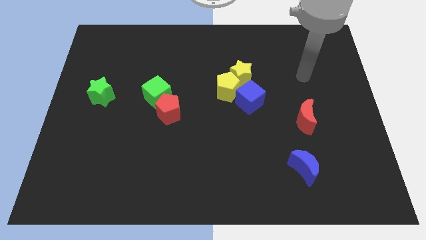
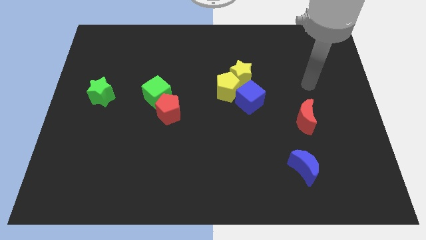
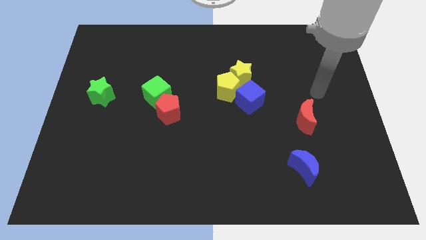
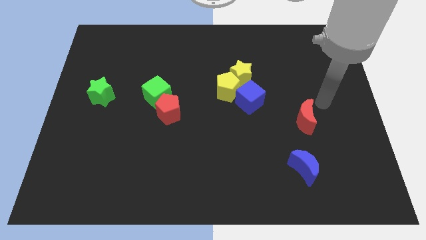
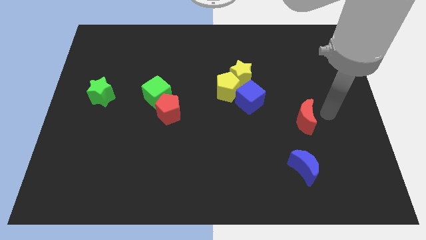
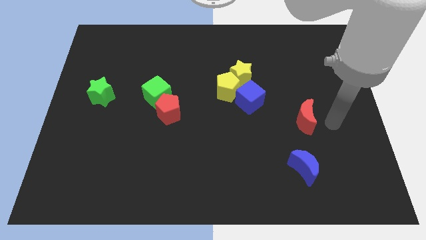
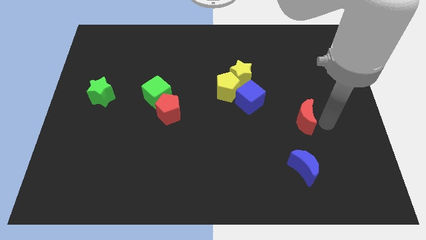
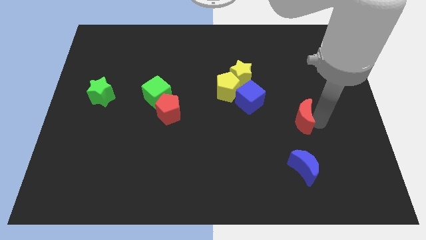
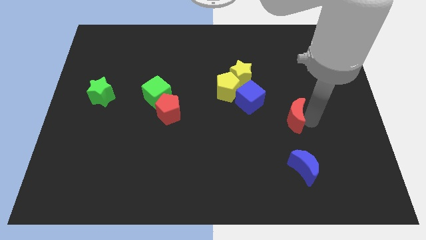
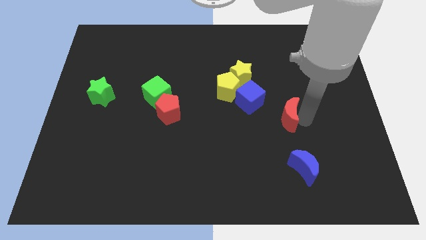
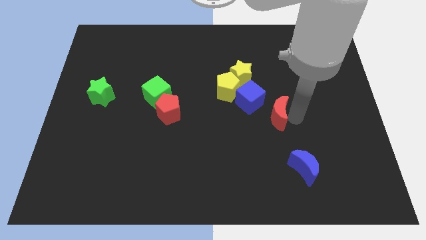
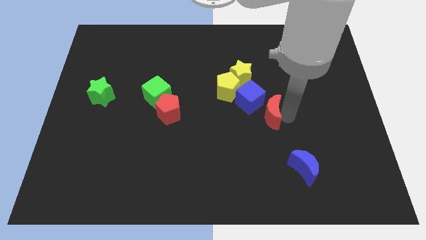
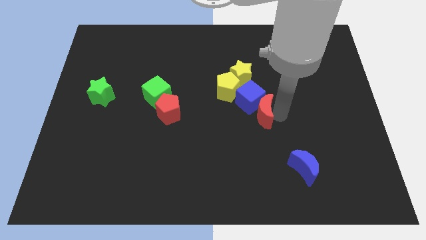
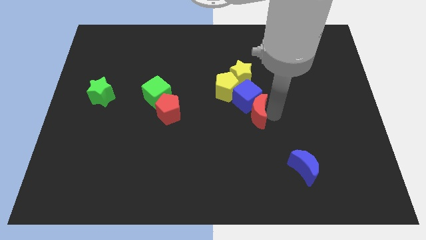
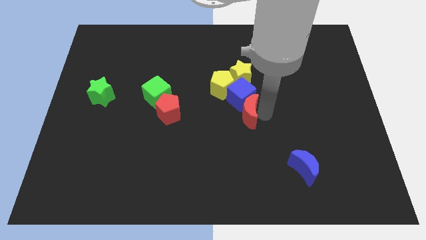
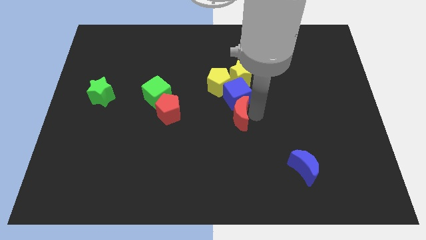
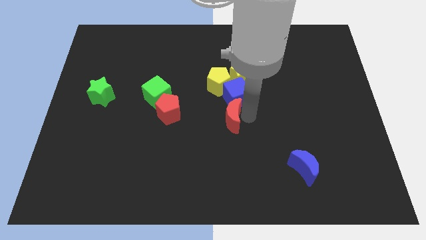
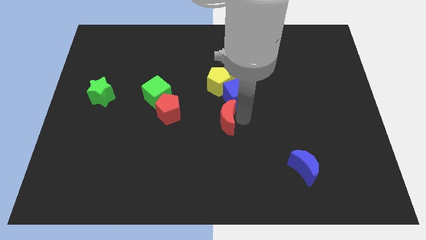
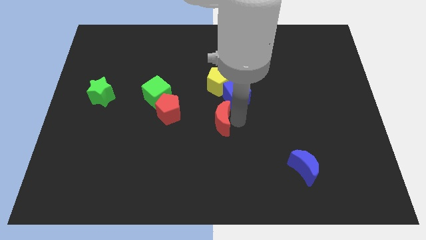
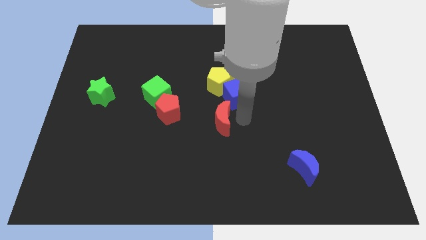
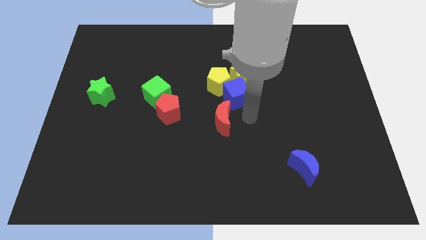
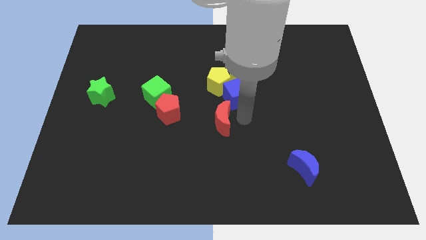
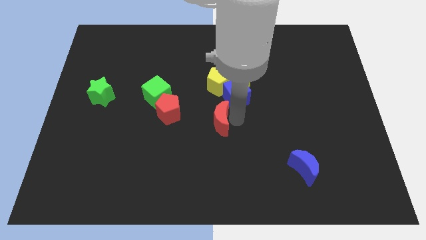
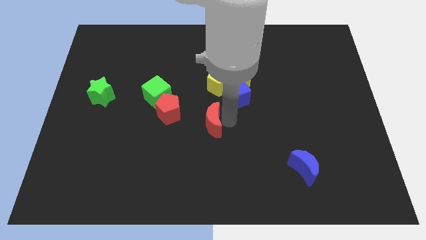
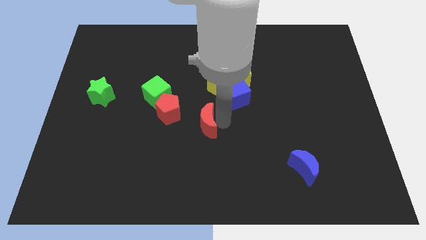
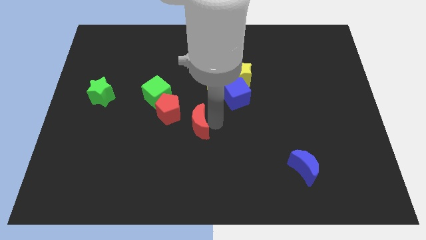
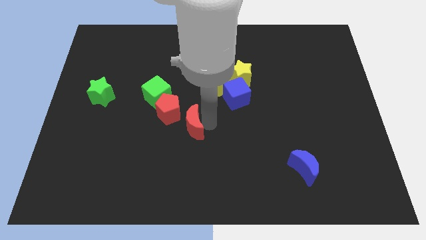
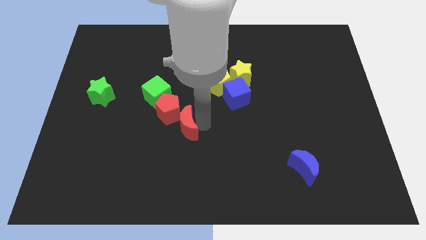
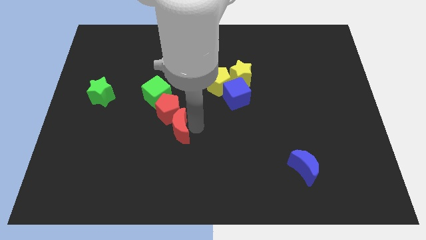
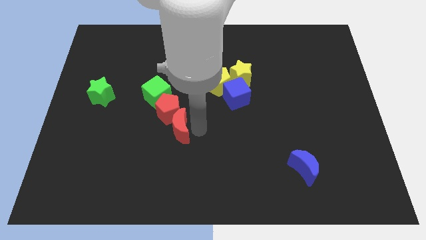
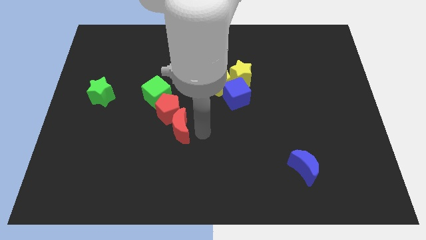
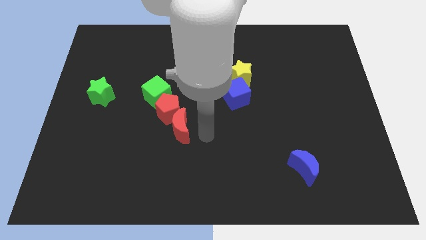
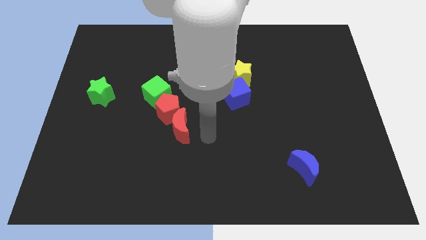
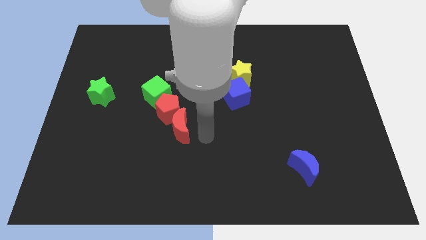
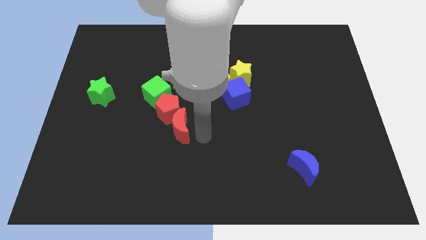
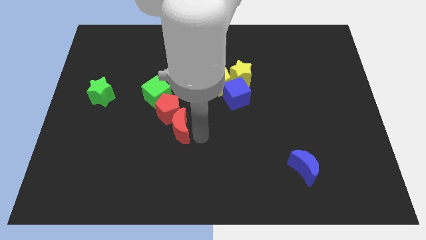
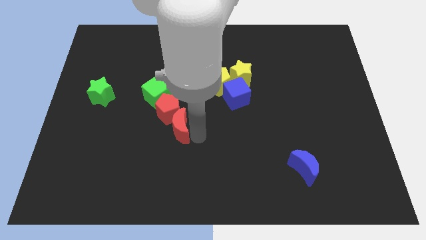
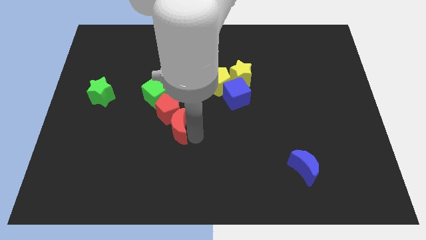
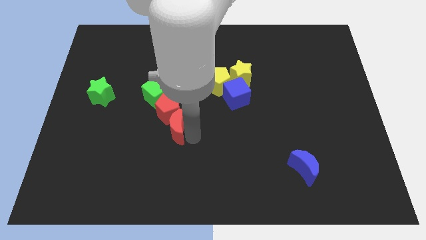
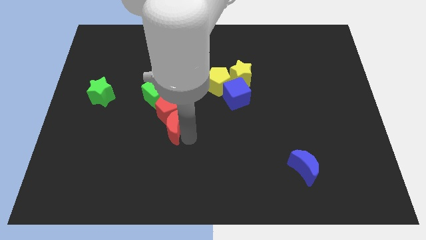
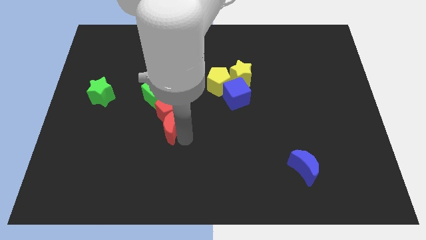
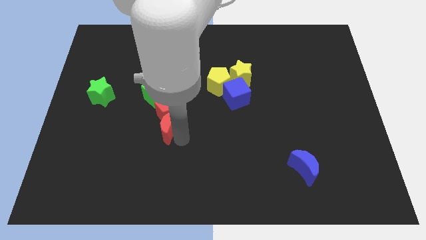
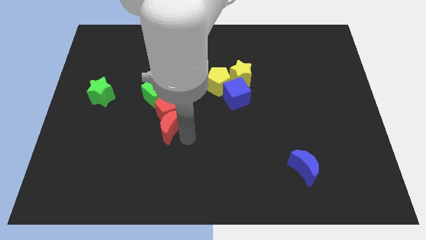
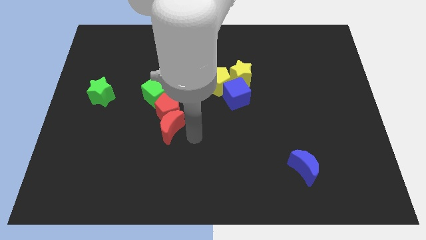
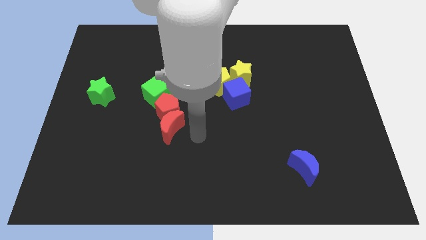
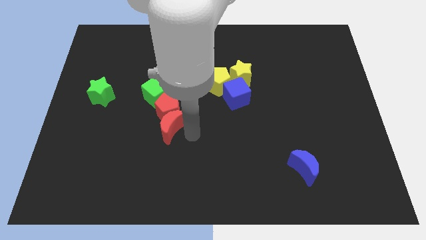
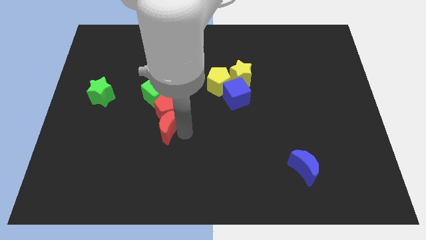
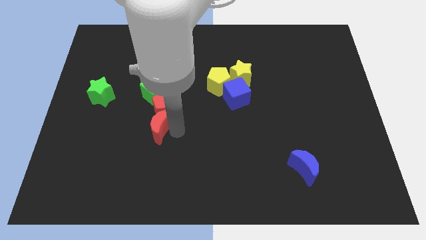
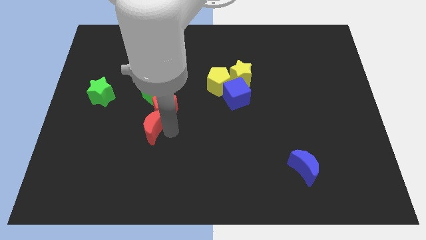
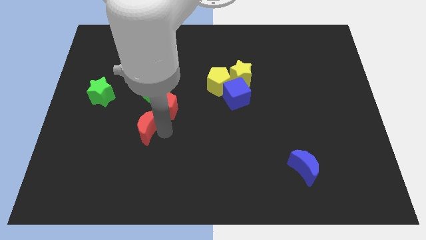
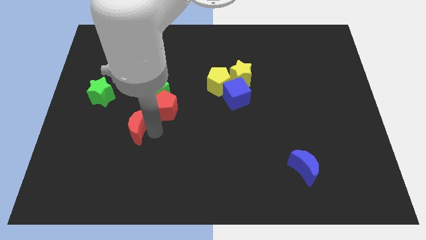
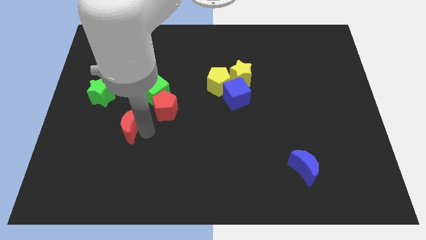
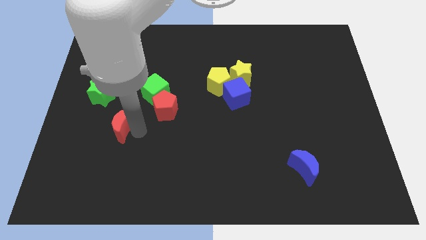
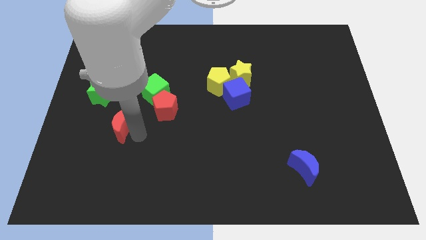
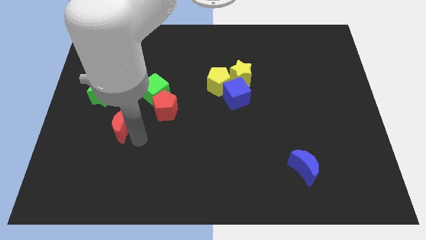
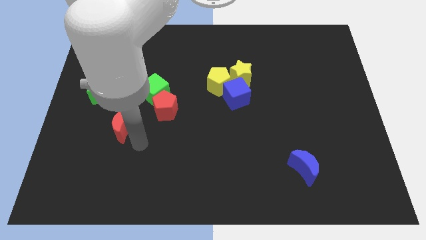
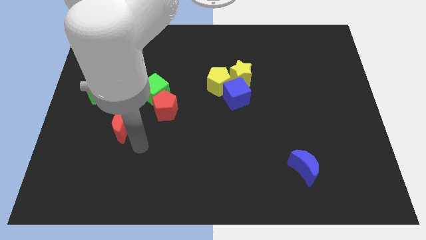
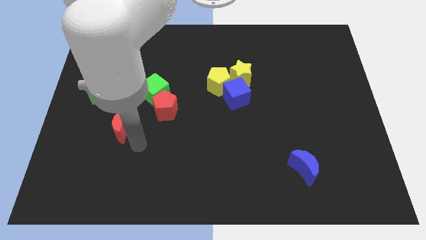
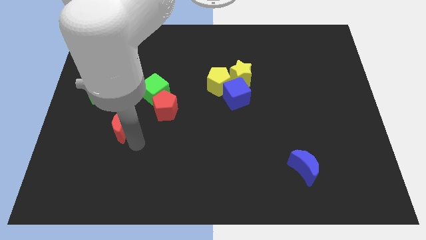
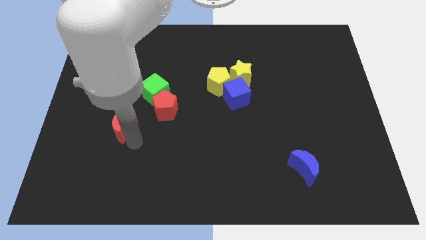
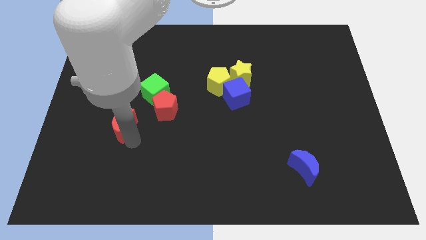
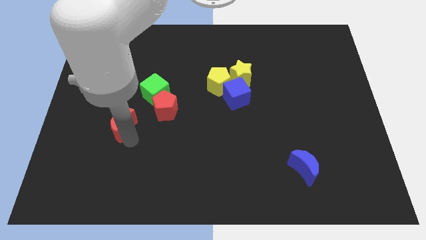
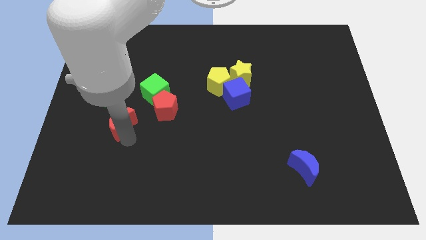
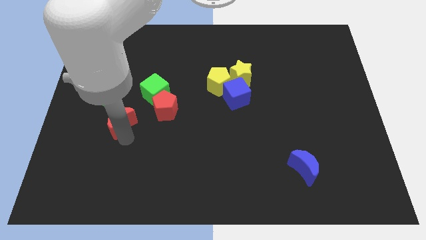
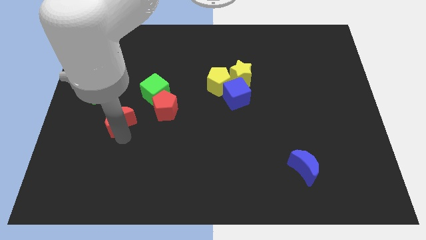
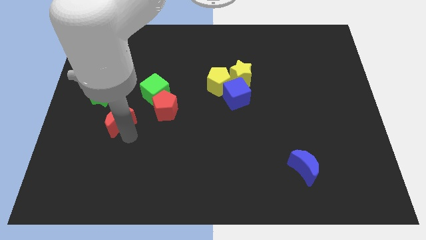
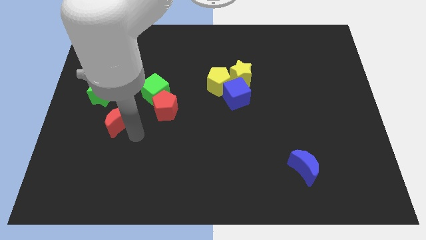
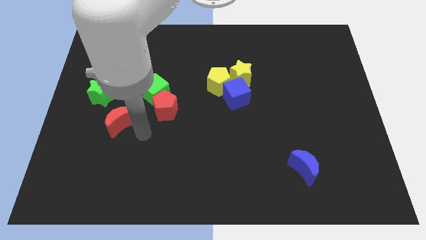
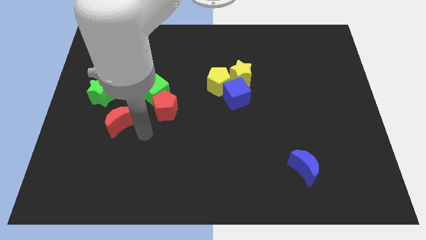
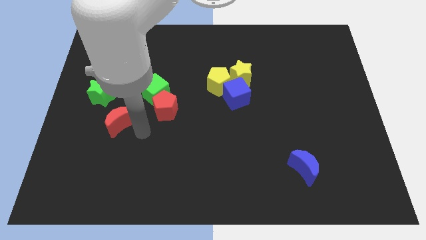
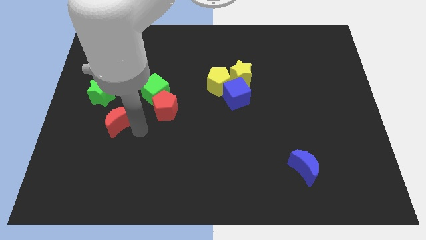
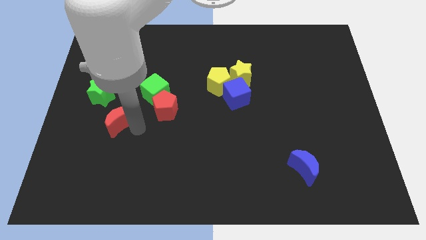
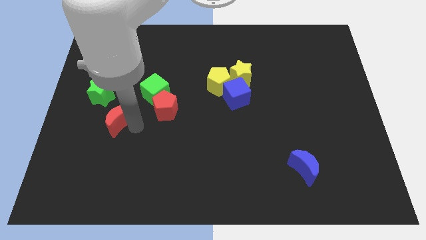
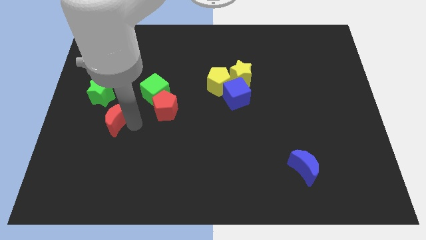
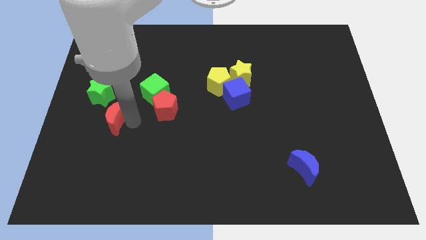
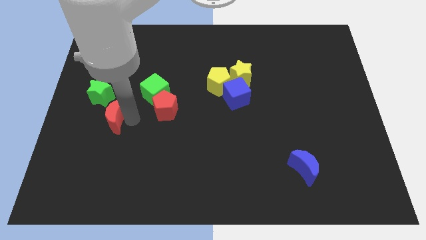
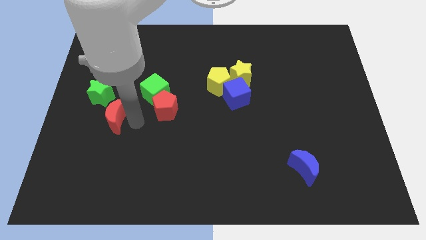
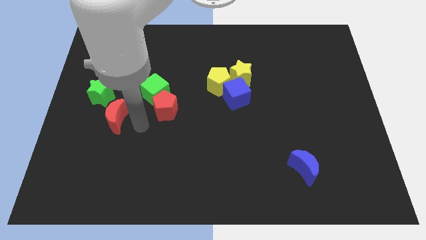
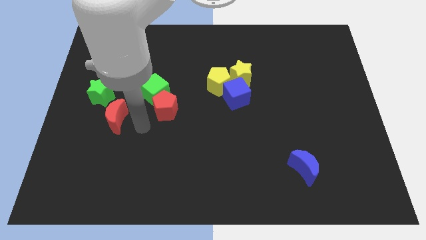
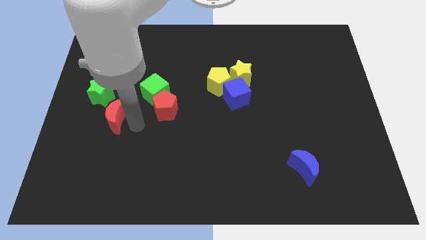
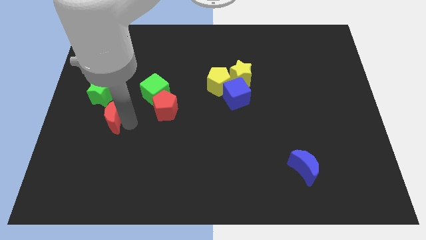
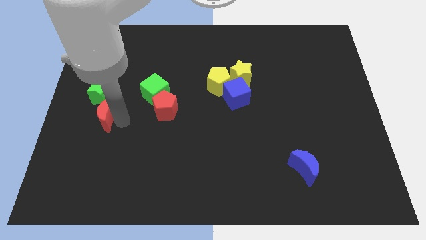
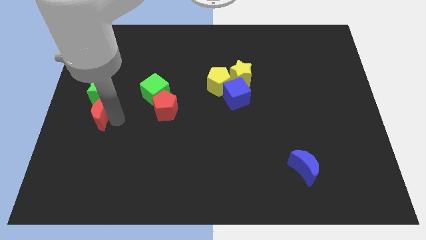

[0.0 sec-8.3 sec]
move the red moon to the center left
